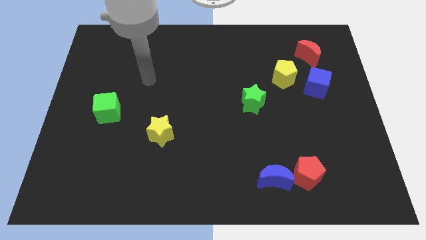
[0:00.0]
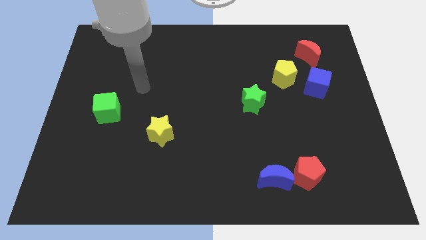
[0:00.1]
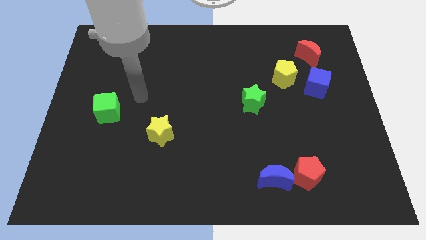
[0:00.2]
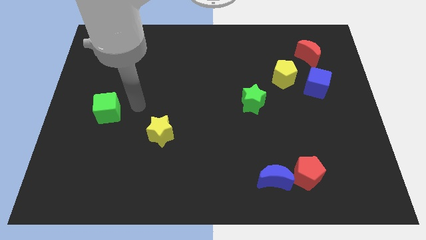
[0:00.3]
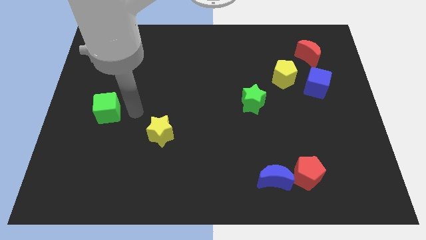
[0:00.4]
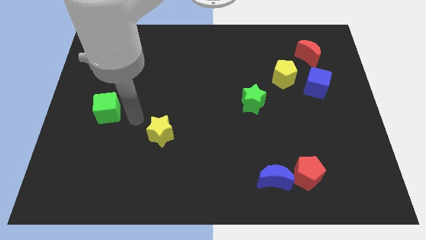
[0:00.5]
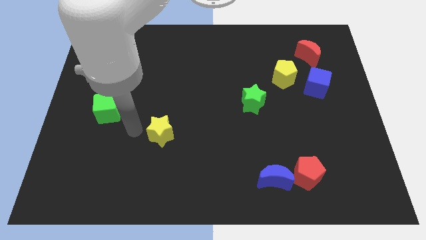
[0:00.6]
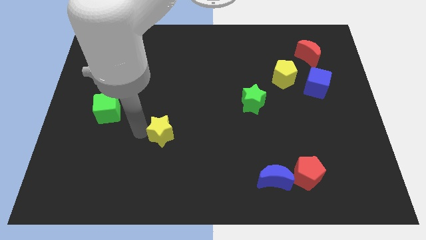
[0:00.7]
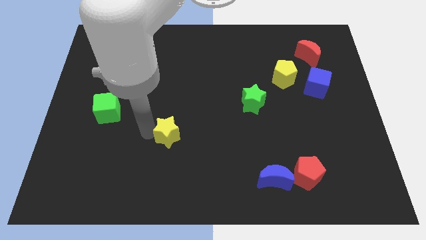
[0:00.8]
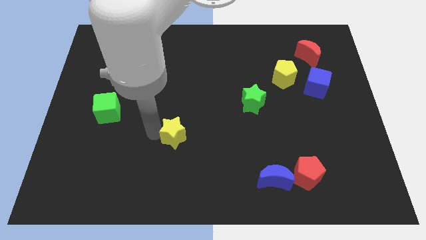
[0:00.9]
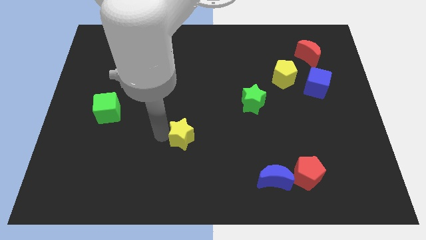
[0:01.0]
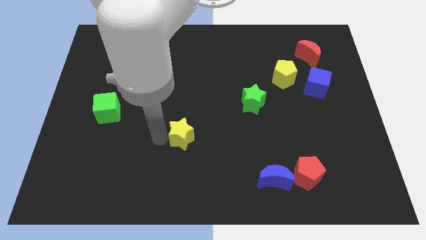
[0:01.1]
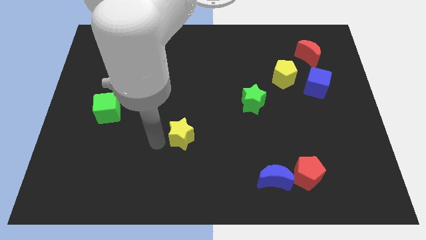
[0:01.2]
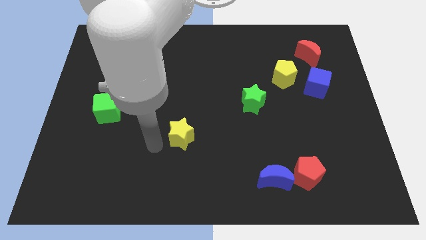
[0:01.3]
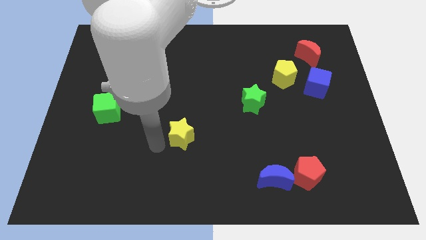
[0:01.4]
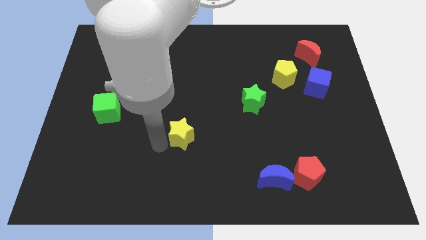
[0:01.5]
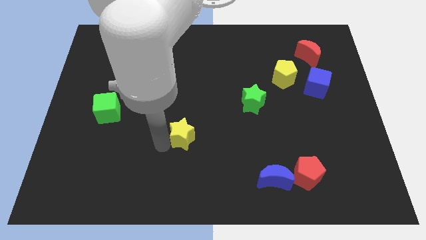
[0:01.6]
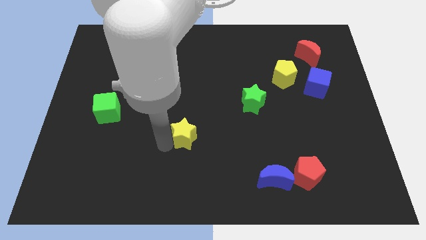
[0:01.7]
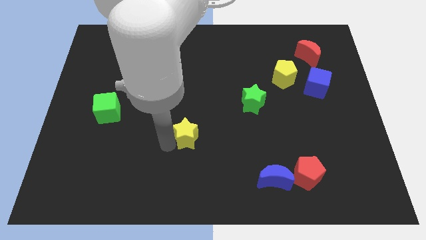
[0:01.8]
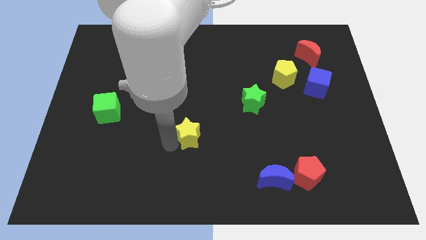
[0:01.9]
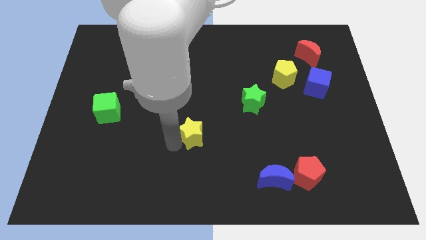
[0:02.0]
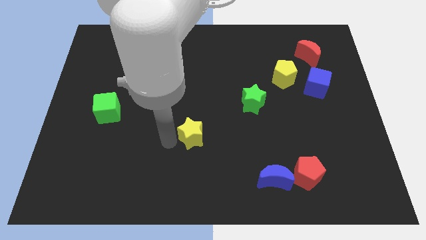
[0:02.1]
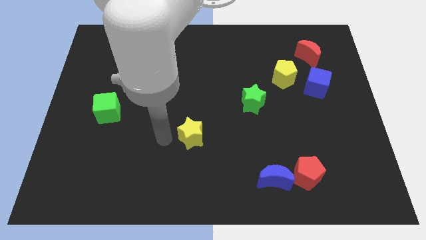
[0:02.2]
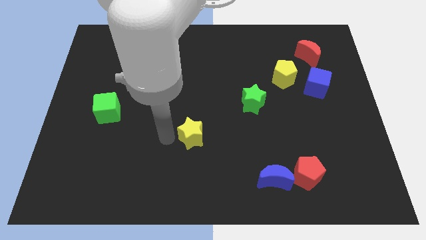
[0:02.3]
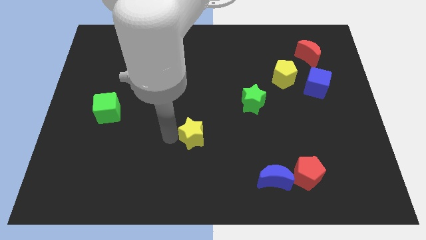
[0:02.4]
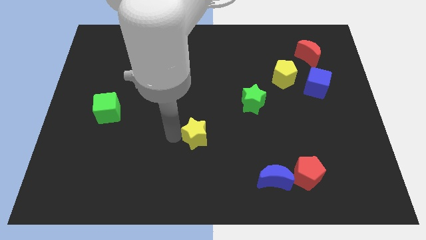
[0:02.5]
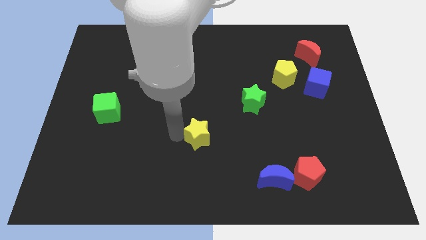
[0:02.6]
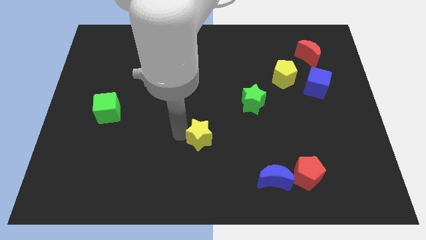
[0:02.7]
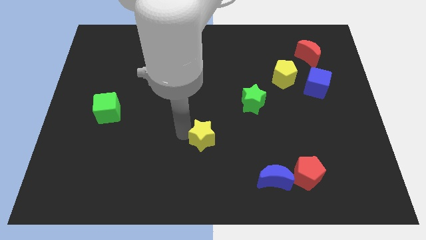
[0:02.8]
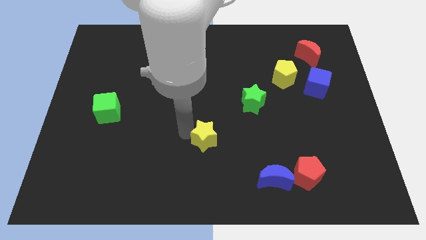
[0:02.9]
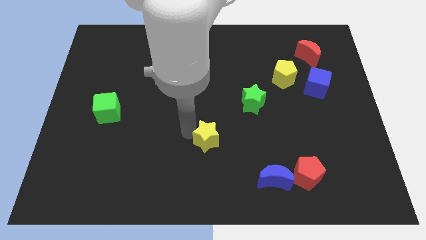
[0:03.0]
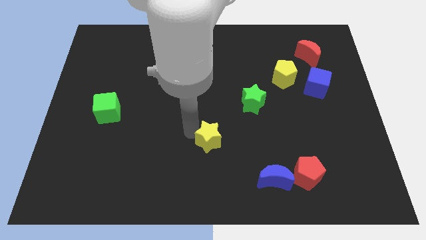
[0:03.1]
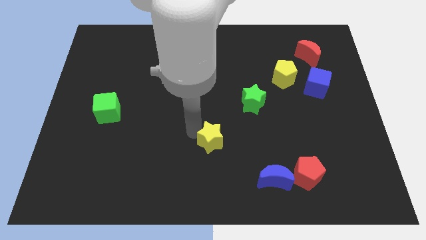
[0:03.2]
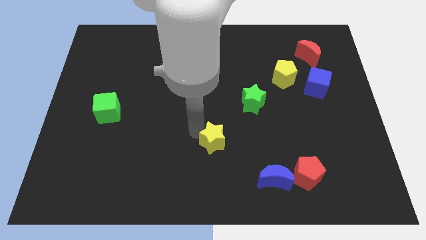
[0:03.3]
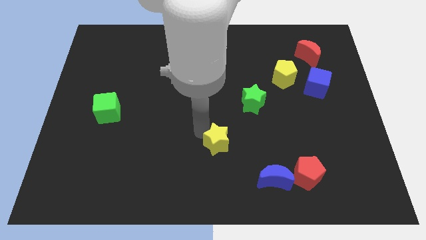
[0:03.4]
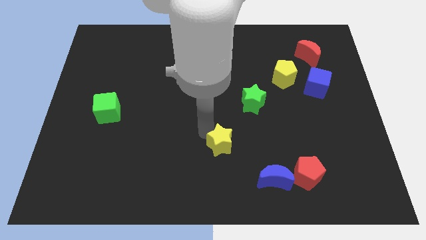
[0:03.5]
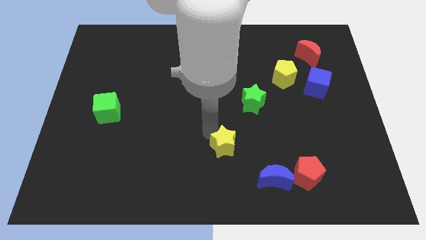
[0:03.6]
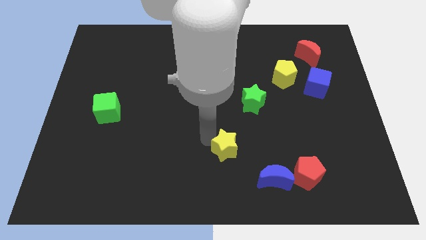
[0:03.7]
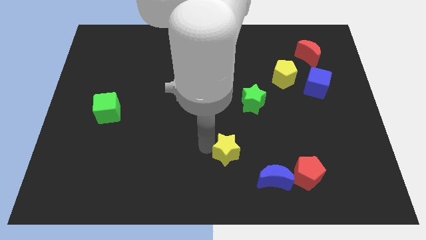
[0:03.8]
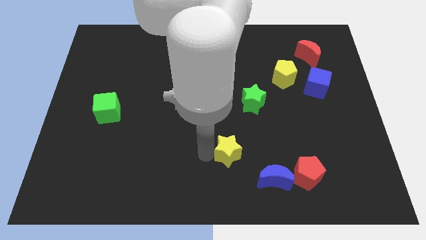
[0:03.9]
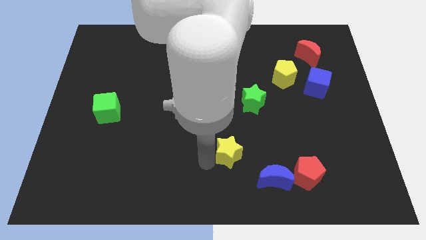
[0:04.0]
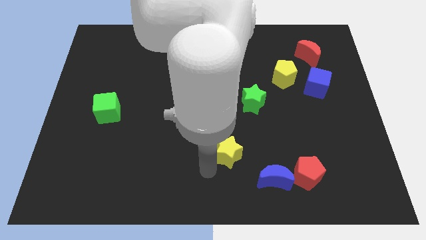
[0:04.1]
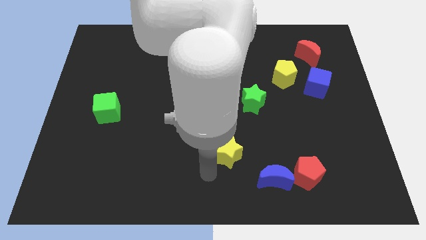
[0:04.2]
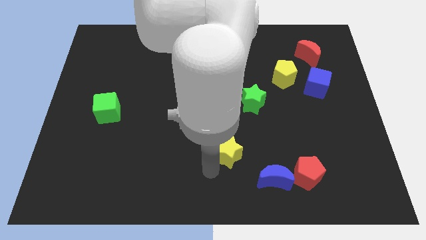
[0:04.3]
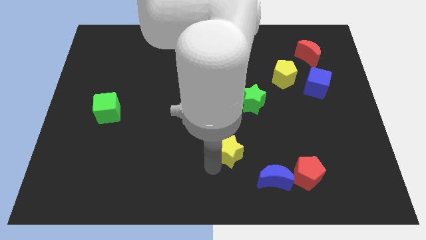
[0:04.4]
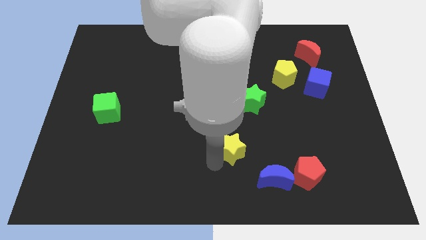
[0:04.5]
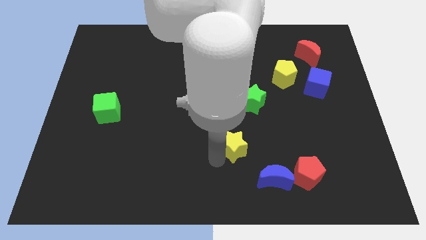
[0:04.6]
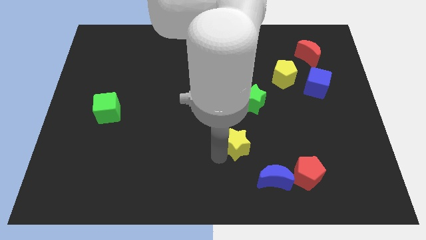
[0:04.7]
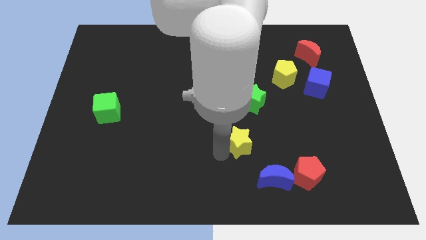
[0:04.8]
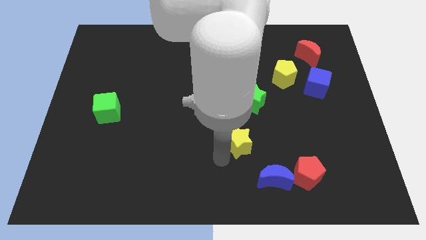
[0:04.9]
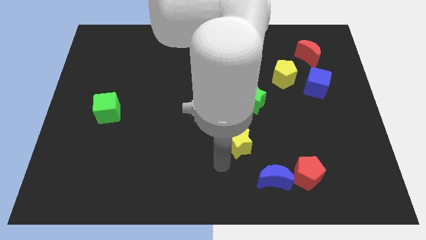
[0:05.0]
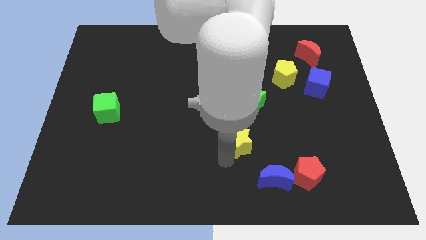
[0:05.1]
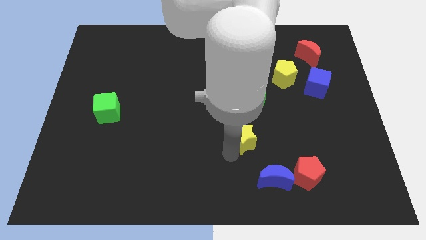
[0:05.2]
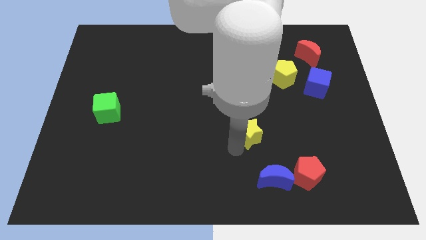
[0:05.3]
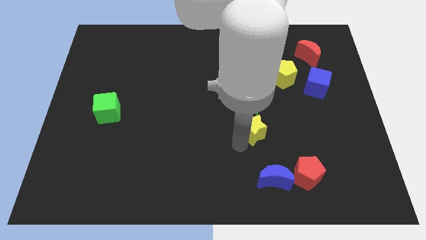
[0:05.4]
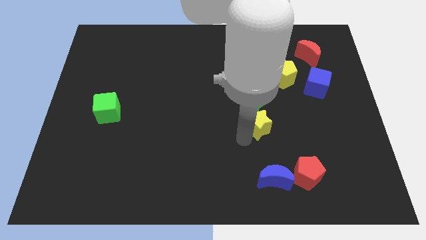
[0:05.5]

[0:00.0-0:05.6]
slide the yellow star diagonally down and to the right of the green star

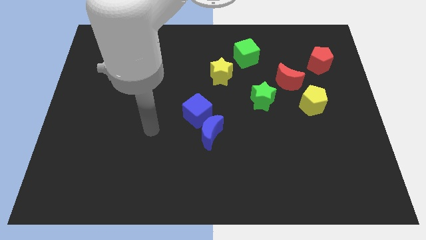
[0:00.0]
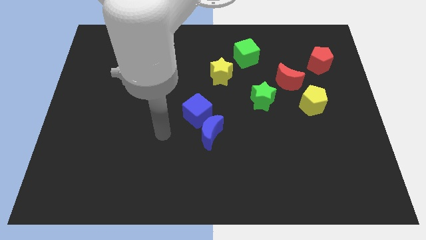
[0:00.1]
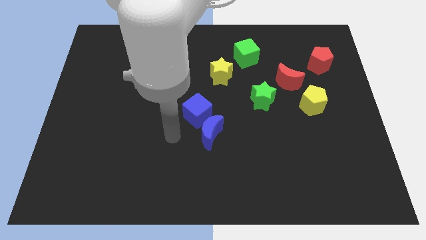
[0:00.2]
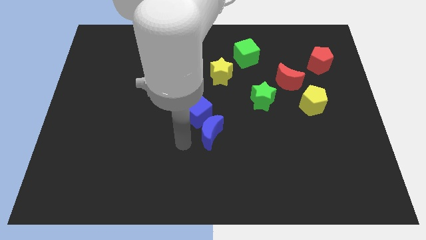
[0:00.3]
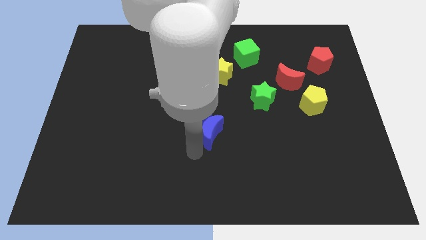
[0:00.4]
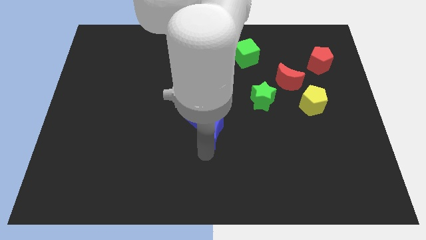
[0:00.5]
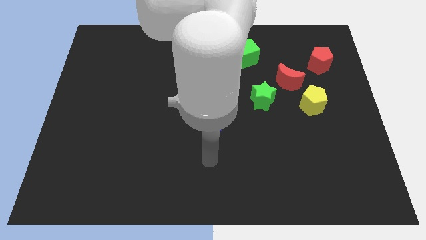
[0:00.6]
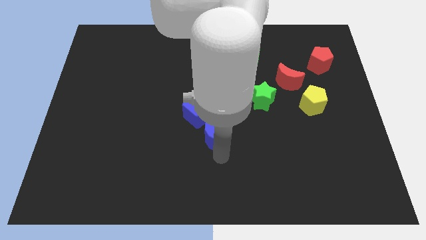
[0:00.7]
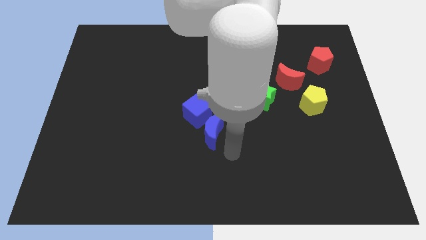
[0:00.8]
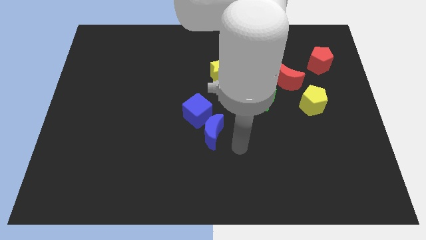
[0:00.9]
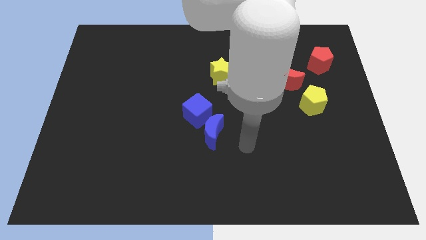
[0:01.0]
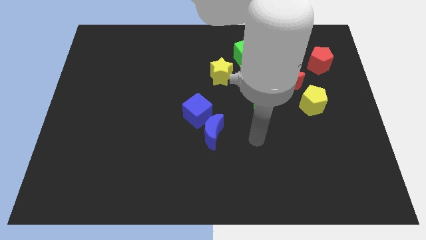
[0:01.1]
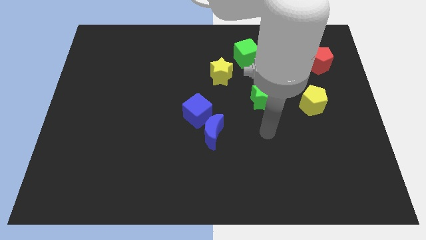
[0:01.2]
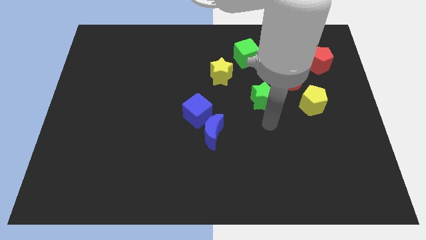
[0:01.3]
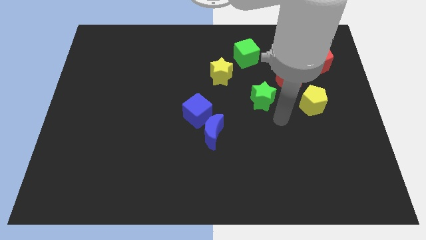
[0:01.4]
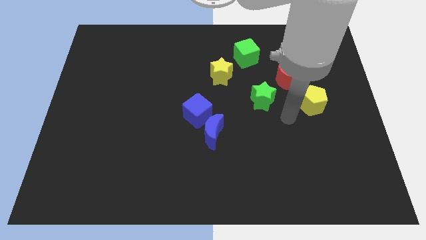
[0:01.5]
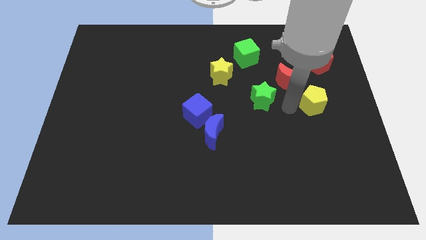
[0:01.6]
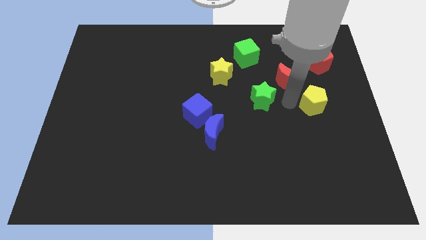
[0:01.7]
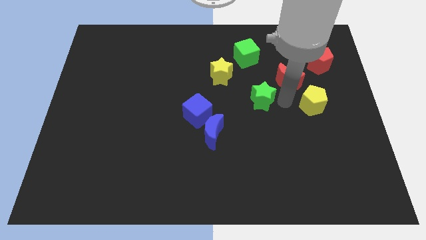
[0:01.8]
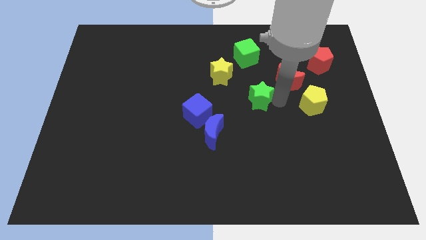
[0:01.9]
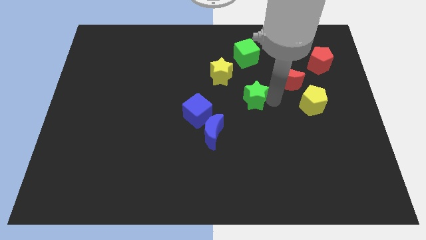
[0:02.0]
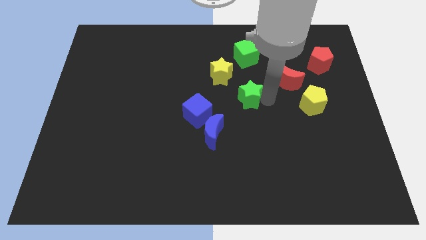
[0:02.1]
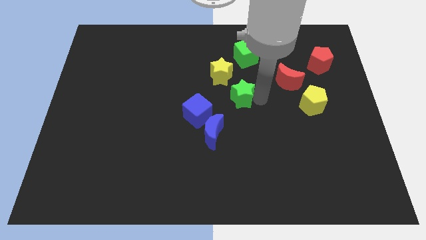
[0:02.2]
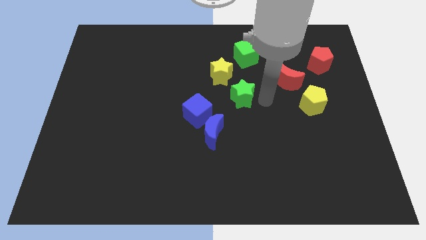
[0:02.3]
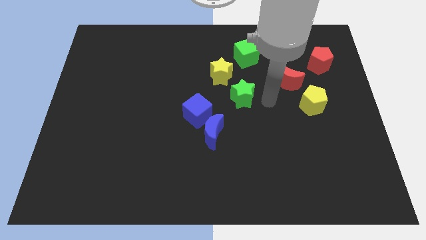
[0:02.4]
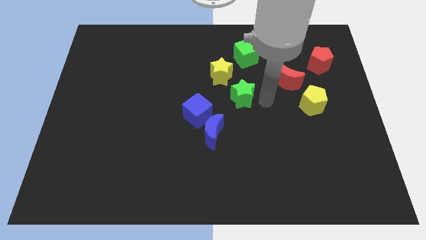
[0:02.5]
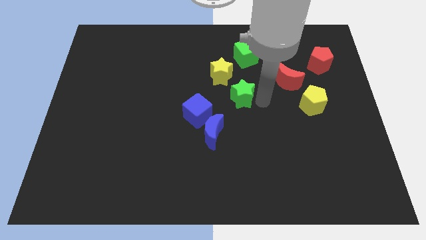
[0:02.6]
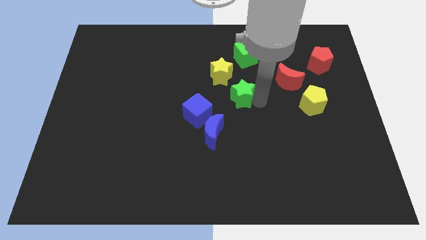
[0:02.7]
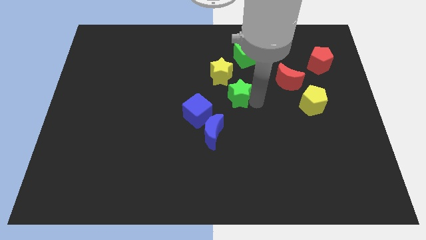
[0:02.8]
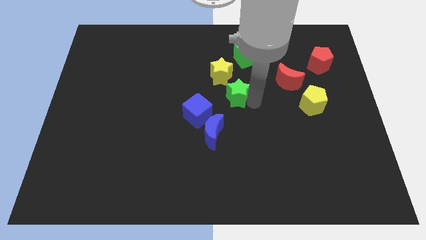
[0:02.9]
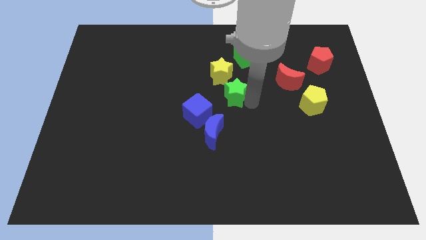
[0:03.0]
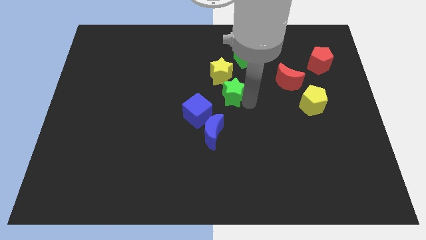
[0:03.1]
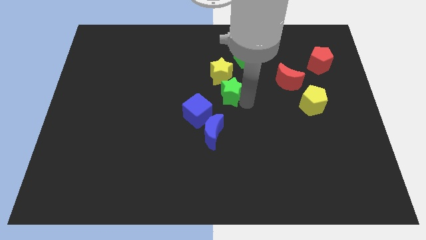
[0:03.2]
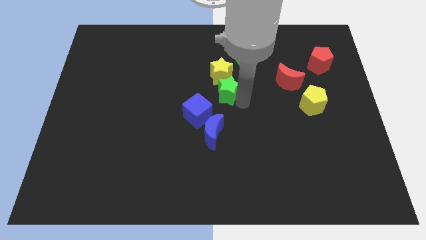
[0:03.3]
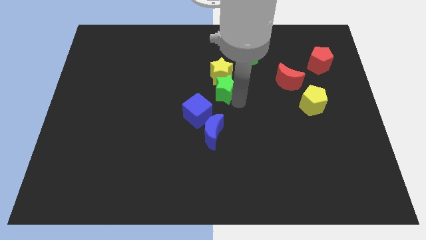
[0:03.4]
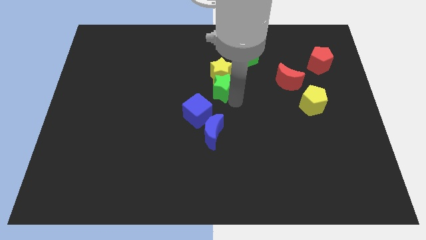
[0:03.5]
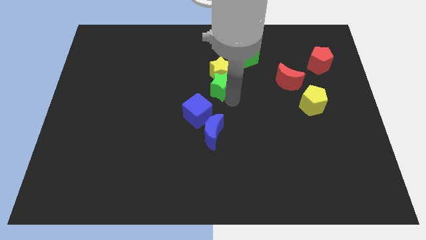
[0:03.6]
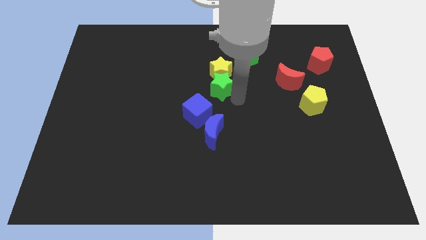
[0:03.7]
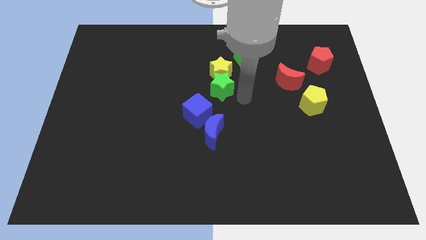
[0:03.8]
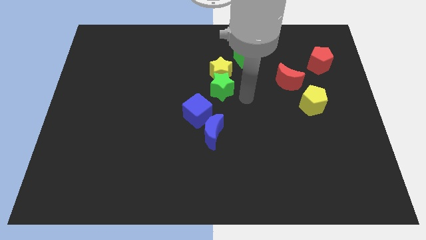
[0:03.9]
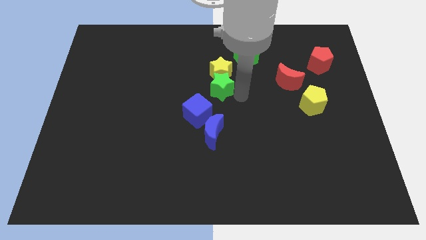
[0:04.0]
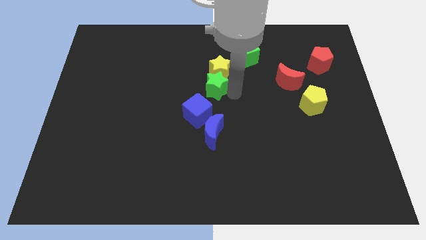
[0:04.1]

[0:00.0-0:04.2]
push the green star above the blue cube
